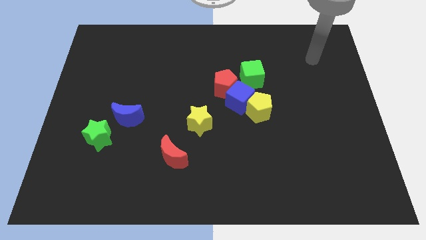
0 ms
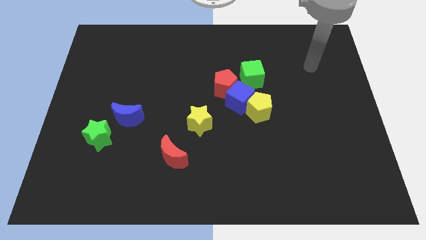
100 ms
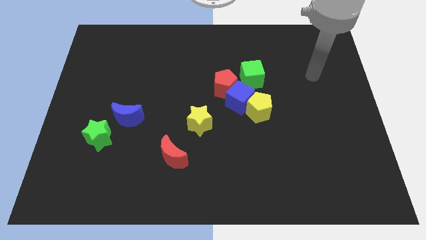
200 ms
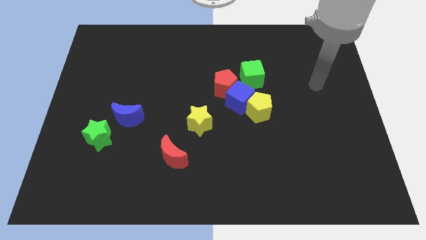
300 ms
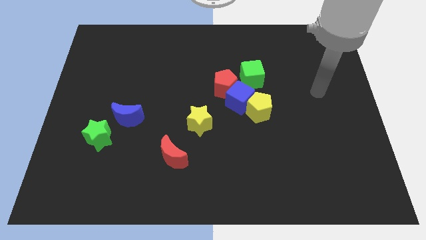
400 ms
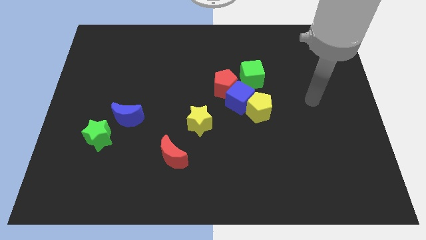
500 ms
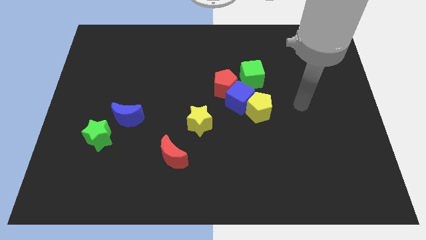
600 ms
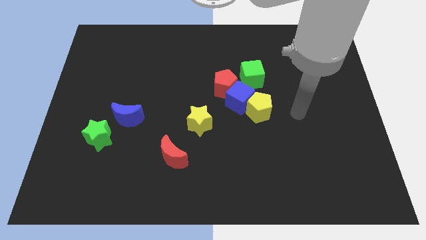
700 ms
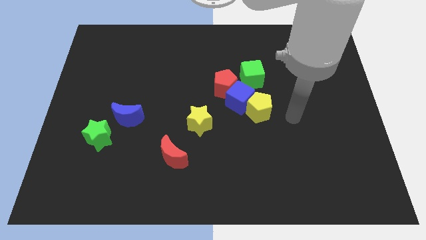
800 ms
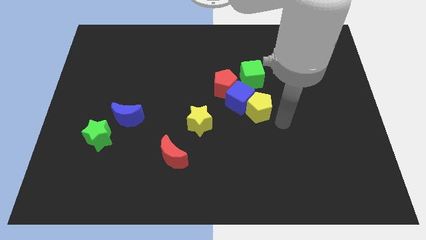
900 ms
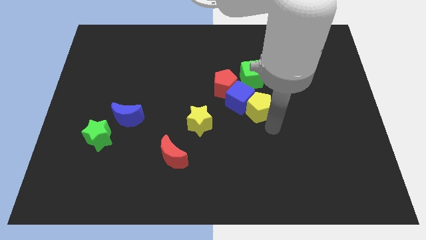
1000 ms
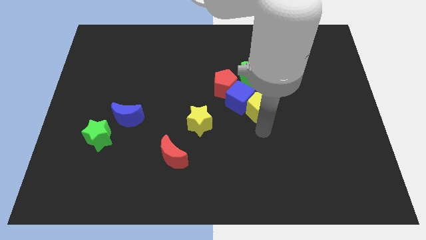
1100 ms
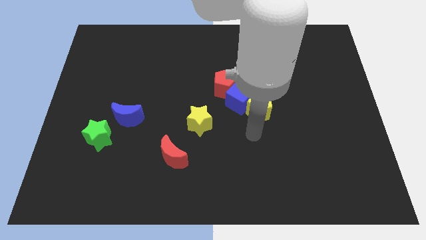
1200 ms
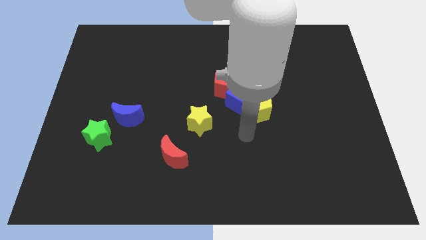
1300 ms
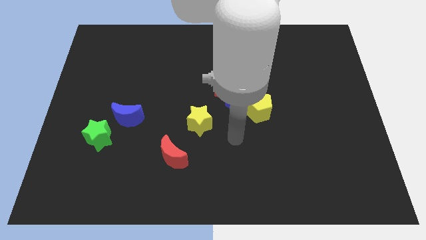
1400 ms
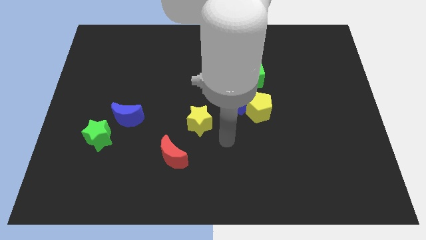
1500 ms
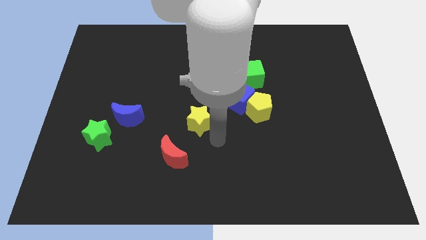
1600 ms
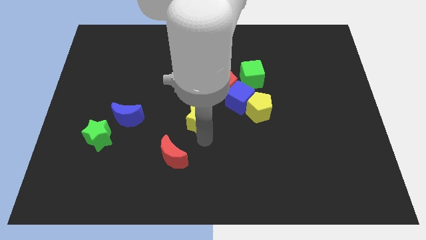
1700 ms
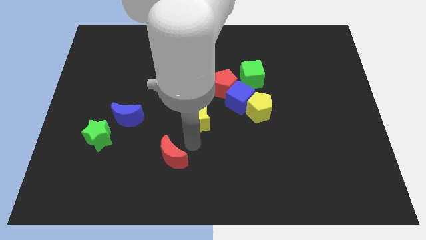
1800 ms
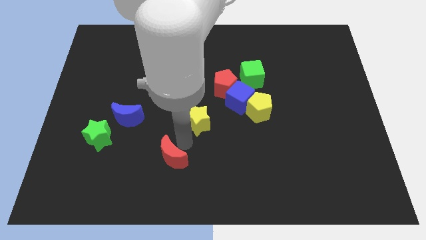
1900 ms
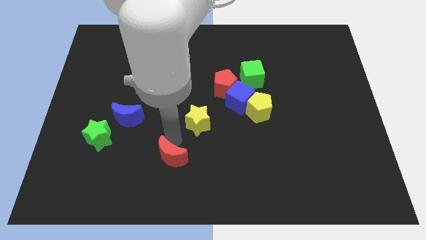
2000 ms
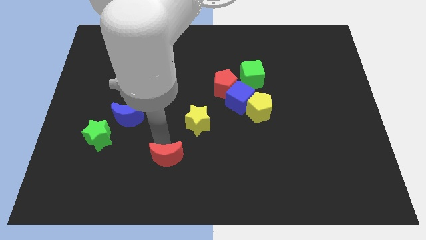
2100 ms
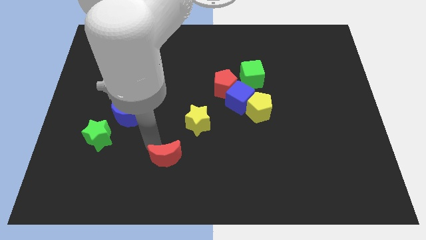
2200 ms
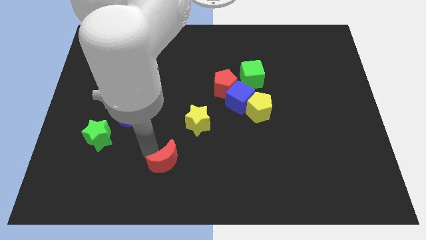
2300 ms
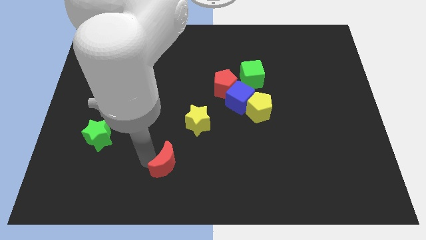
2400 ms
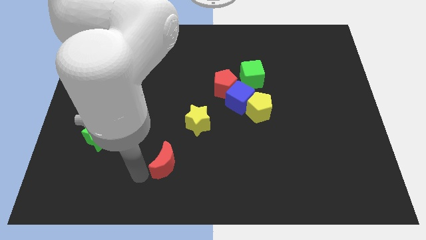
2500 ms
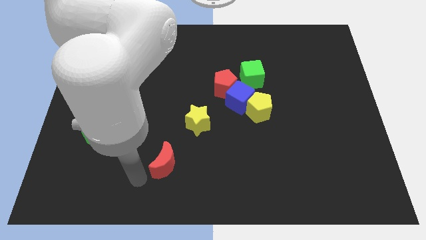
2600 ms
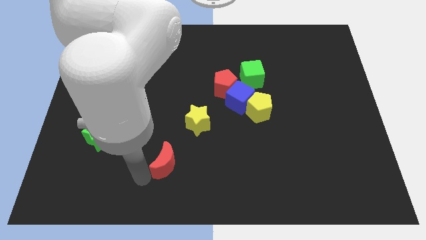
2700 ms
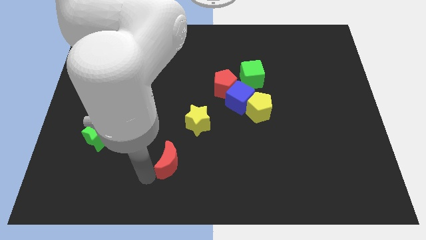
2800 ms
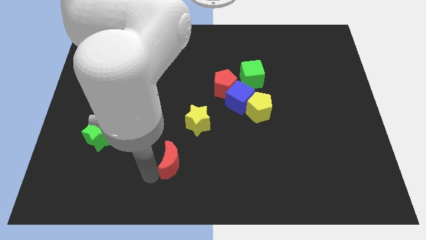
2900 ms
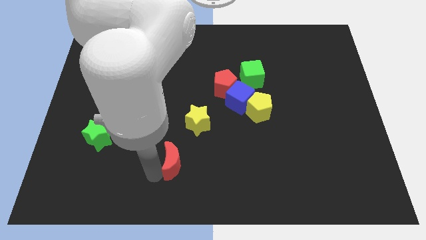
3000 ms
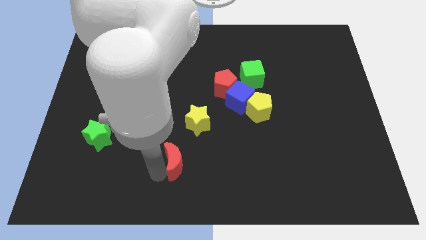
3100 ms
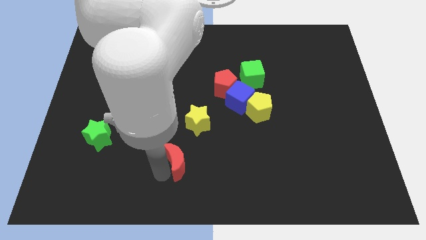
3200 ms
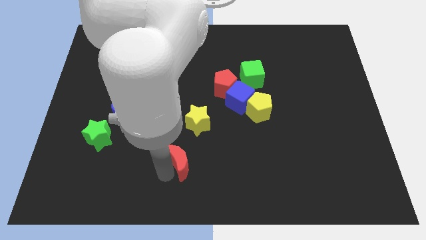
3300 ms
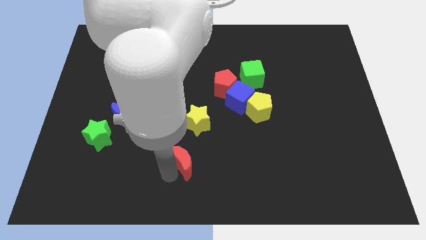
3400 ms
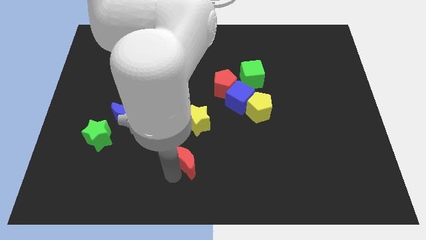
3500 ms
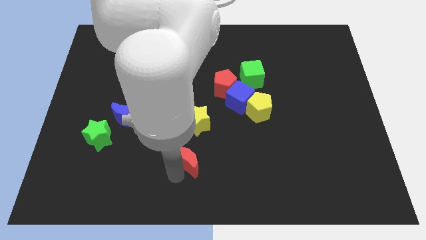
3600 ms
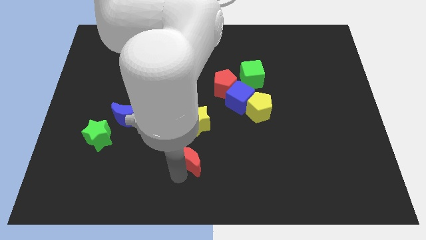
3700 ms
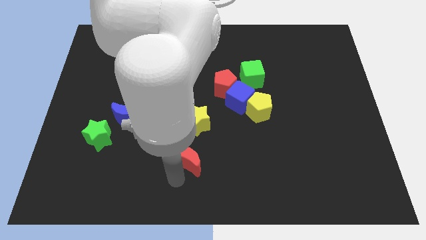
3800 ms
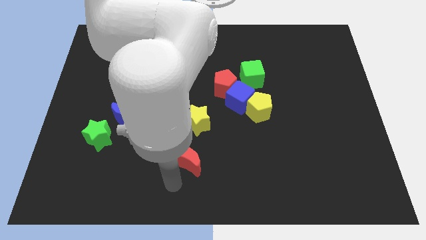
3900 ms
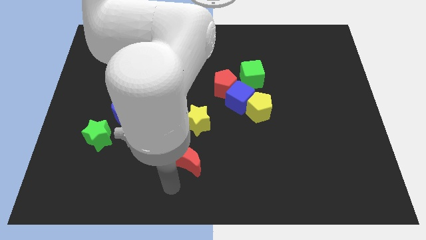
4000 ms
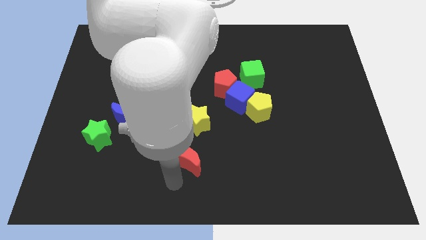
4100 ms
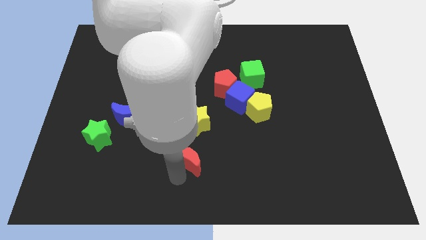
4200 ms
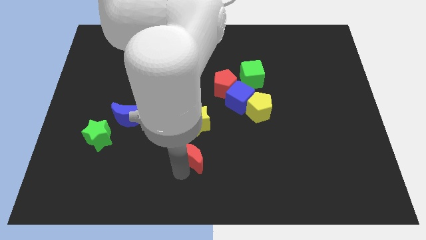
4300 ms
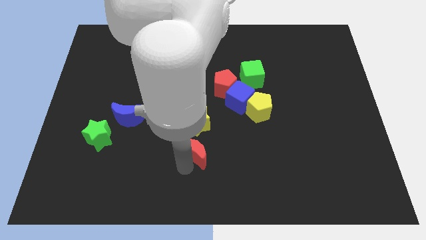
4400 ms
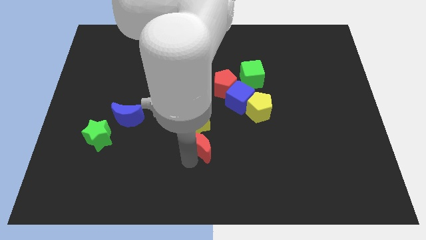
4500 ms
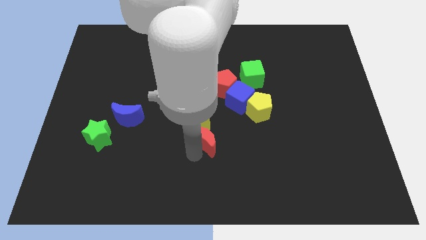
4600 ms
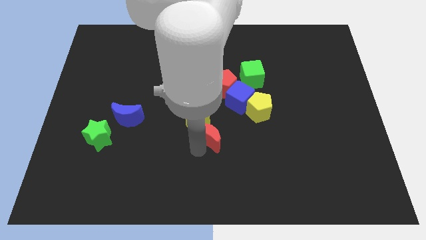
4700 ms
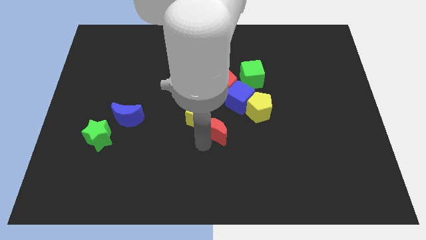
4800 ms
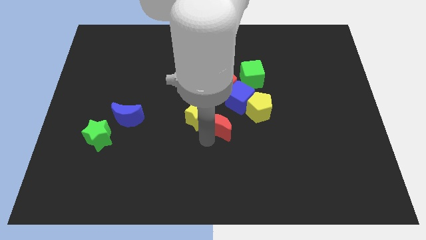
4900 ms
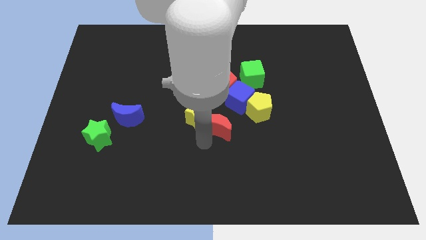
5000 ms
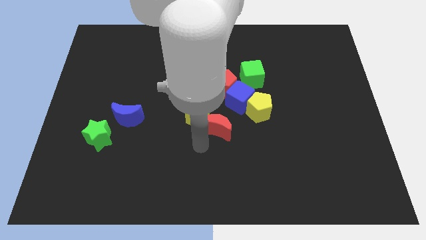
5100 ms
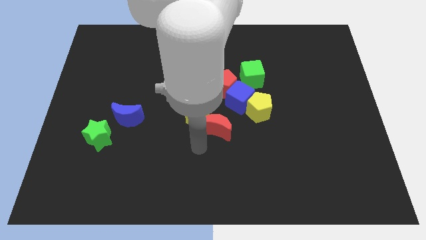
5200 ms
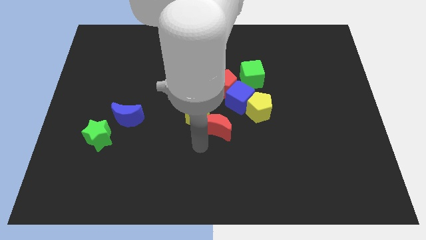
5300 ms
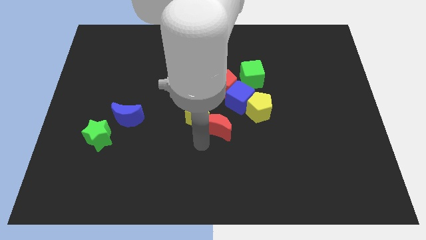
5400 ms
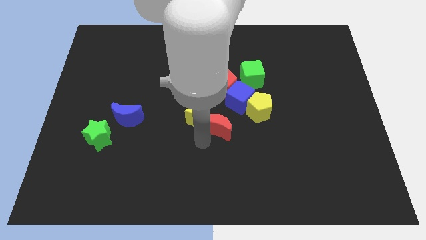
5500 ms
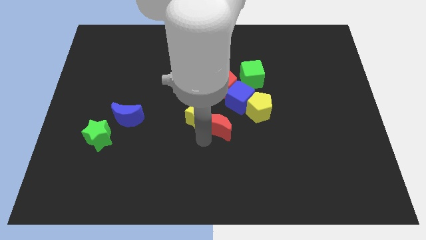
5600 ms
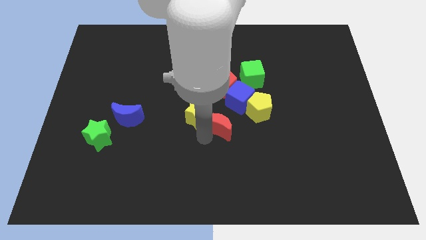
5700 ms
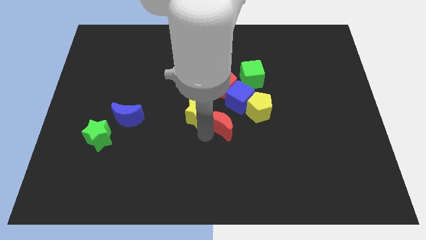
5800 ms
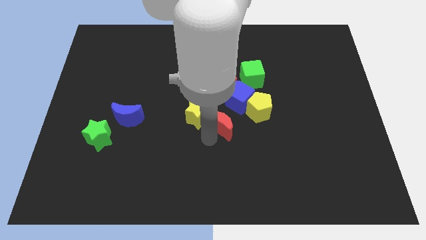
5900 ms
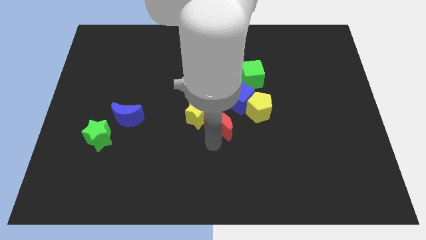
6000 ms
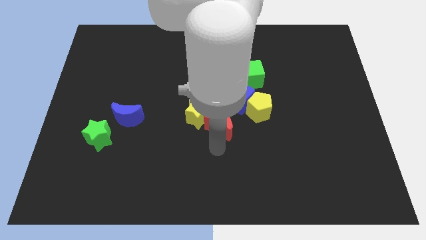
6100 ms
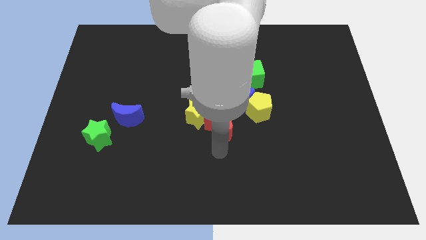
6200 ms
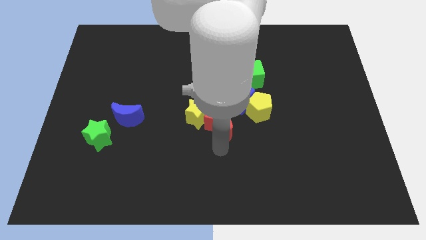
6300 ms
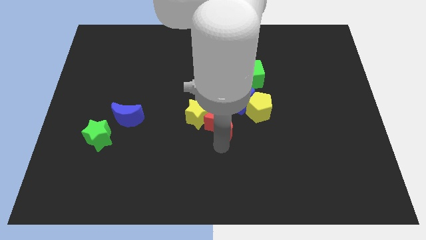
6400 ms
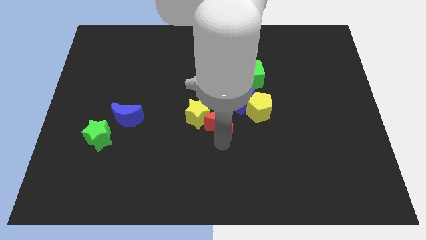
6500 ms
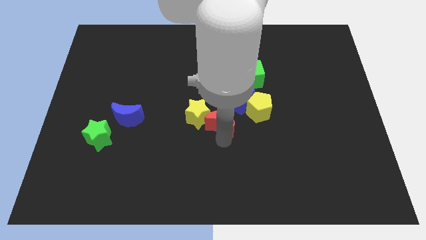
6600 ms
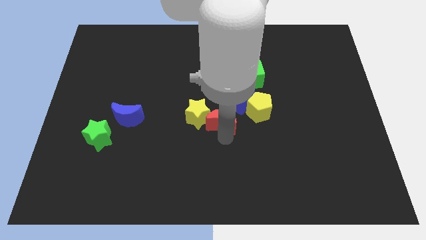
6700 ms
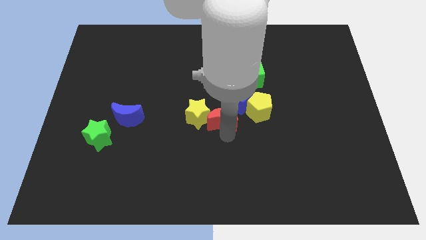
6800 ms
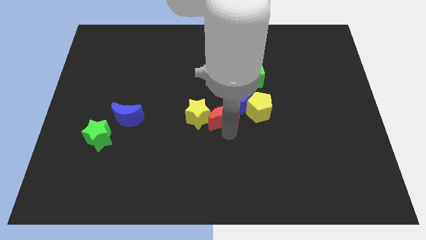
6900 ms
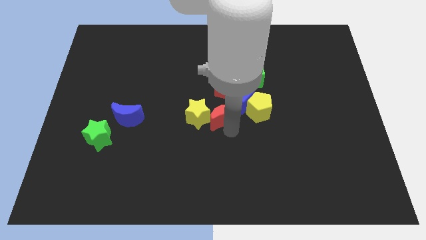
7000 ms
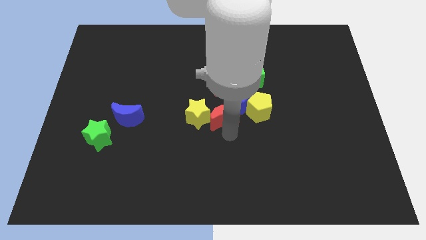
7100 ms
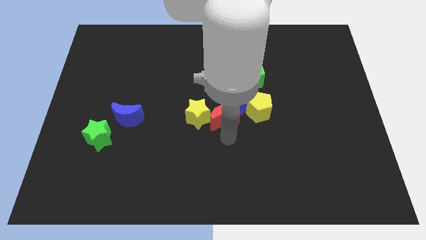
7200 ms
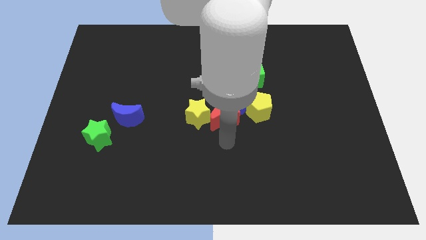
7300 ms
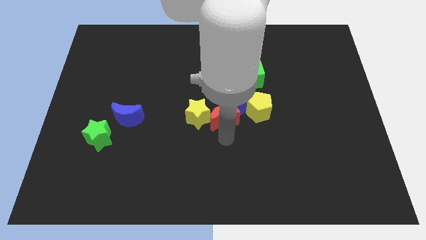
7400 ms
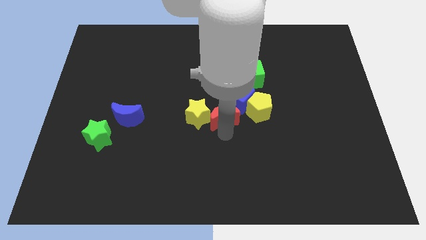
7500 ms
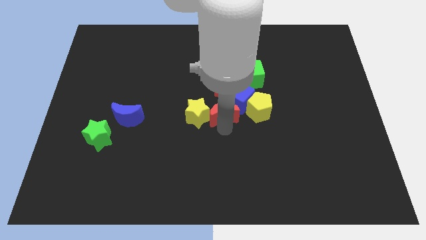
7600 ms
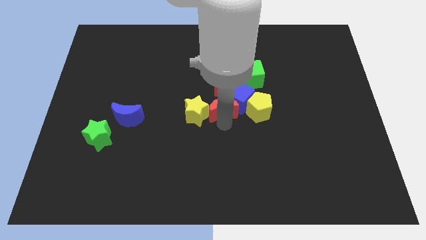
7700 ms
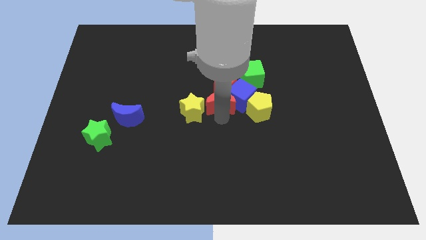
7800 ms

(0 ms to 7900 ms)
put the red moon to the bottom left of the green cube
